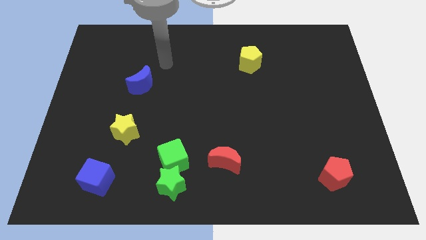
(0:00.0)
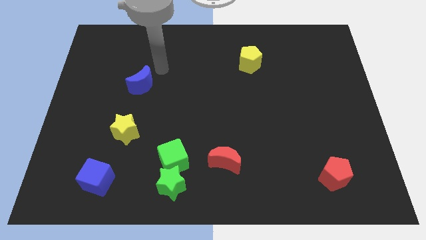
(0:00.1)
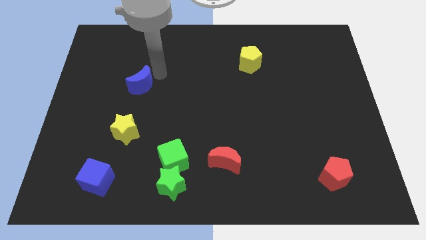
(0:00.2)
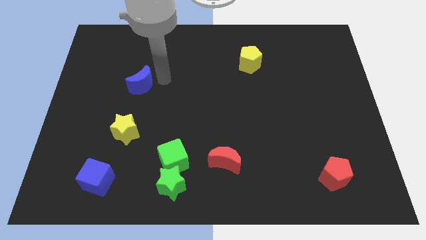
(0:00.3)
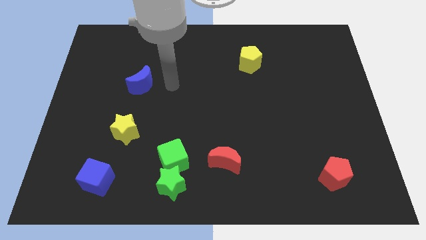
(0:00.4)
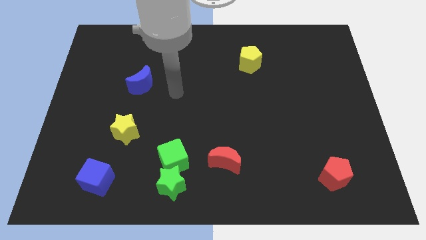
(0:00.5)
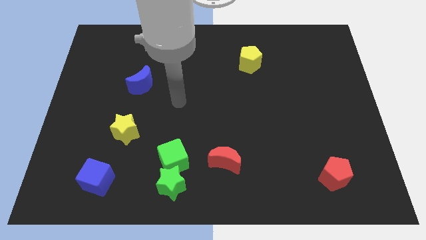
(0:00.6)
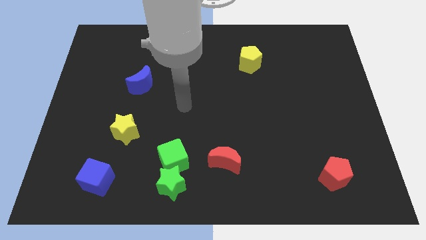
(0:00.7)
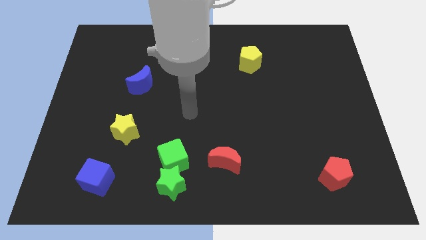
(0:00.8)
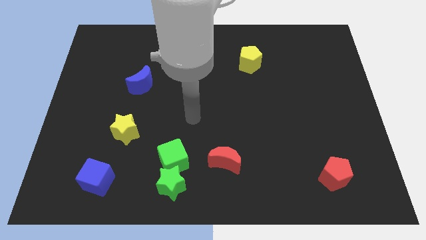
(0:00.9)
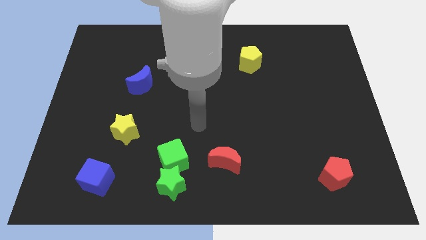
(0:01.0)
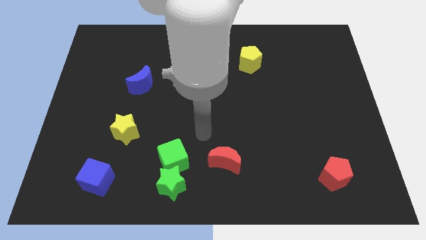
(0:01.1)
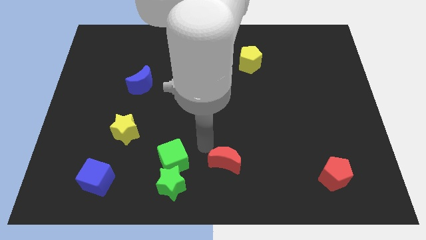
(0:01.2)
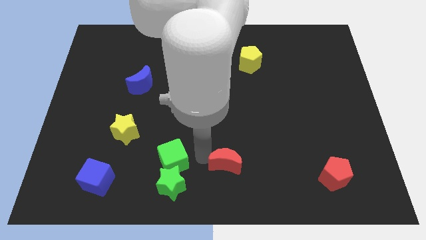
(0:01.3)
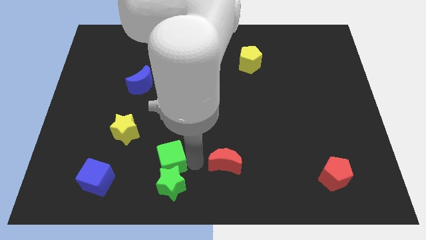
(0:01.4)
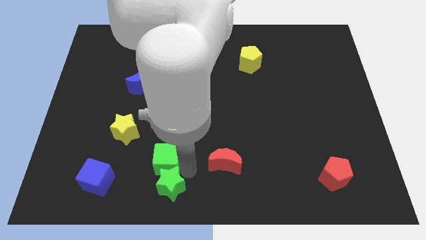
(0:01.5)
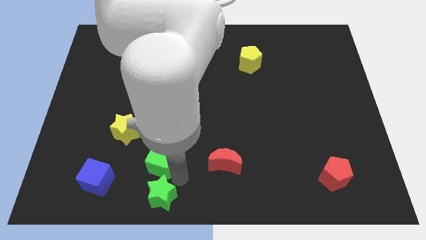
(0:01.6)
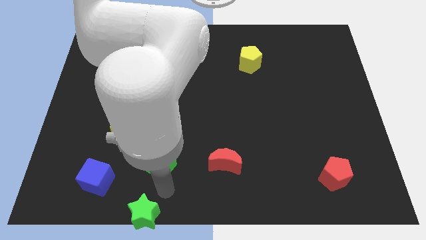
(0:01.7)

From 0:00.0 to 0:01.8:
move the green cube away from the green star

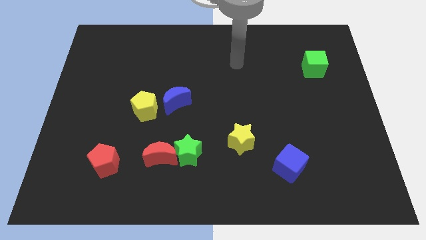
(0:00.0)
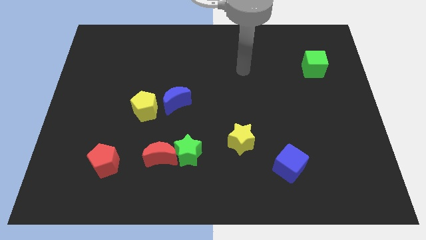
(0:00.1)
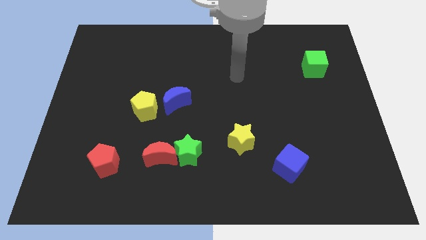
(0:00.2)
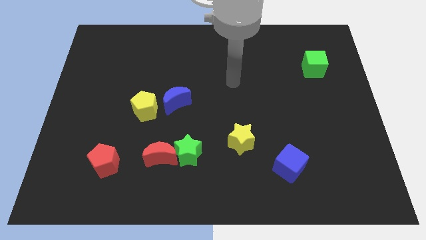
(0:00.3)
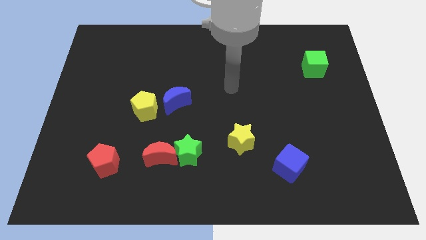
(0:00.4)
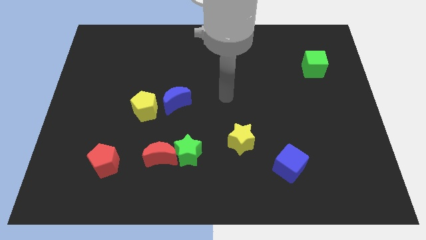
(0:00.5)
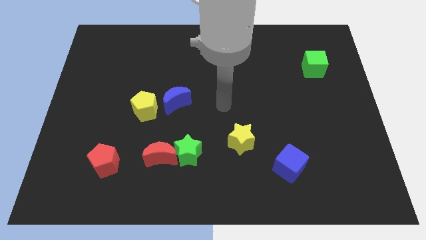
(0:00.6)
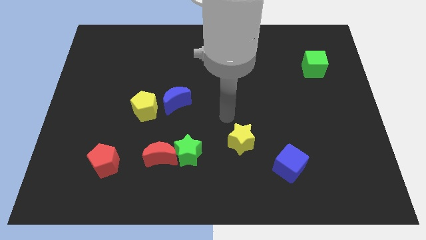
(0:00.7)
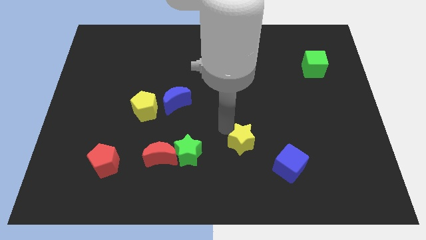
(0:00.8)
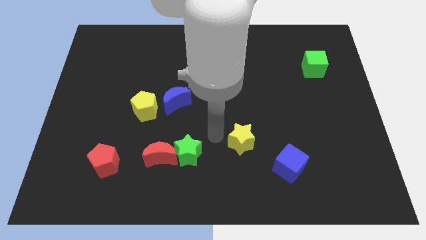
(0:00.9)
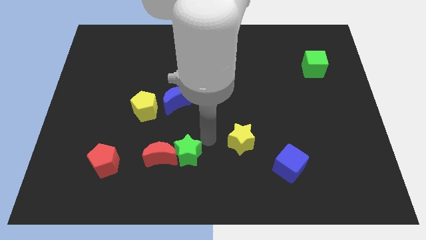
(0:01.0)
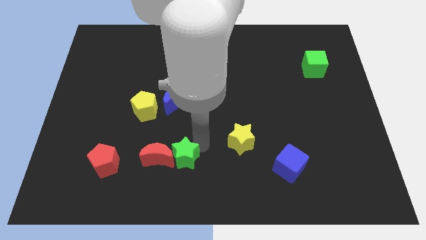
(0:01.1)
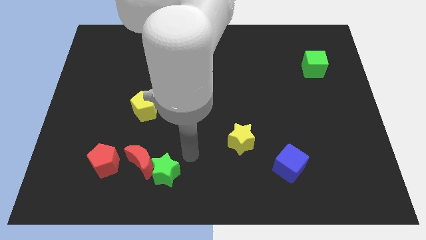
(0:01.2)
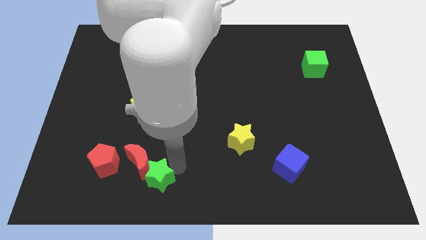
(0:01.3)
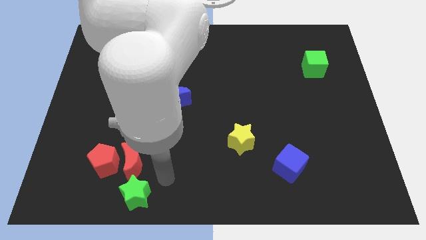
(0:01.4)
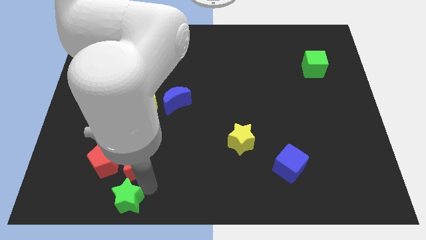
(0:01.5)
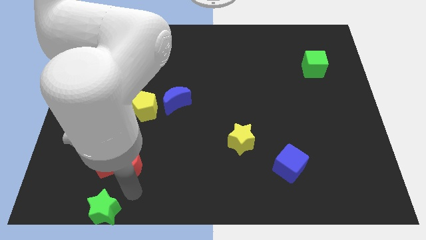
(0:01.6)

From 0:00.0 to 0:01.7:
pull the red moon apart from the green star

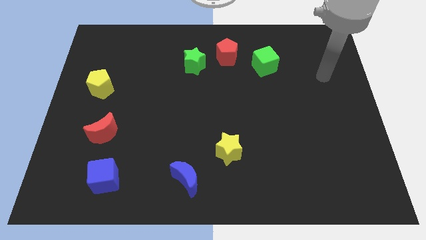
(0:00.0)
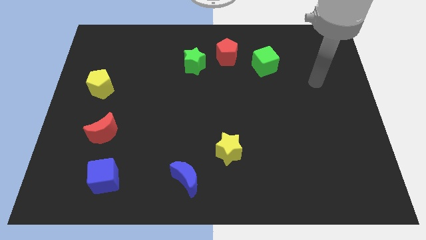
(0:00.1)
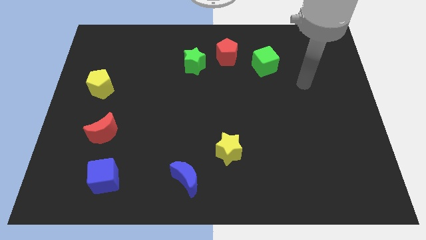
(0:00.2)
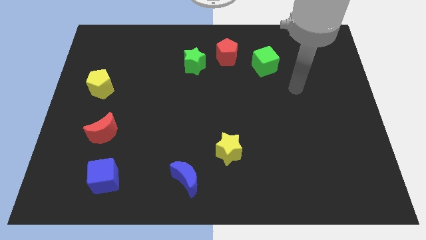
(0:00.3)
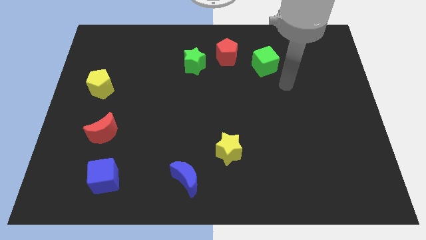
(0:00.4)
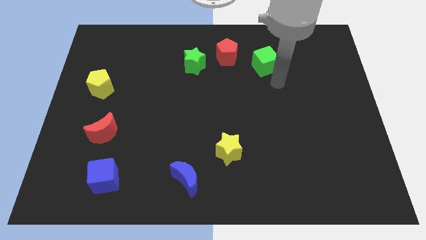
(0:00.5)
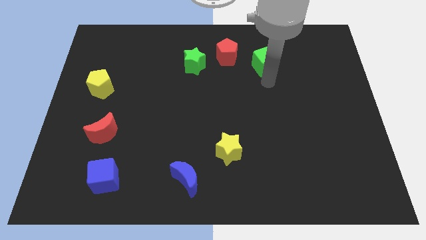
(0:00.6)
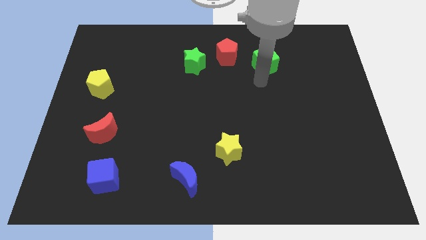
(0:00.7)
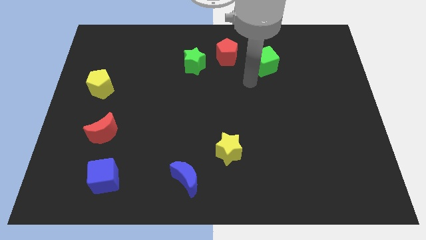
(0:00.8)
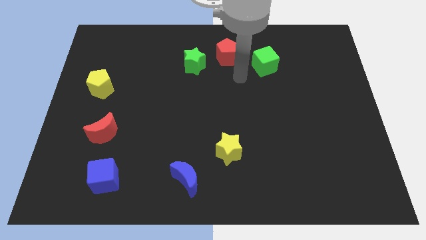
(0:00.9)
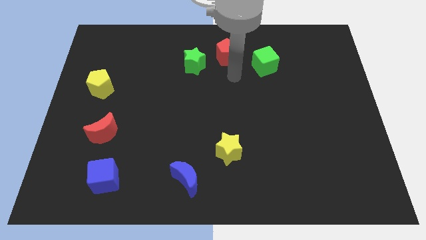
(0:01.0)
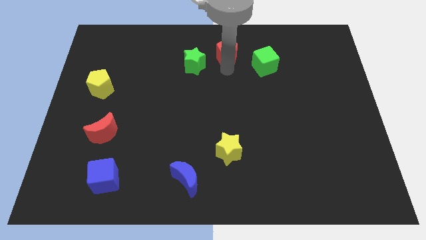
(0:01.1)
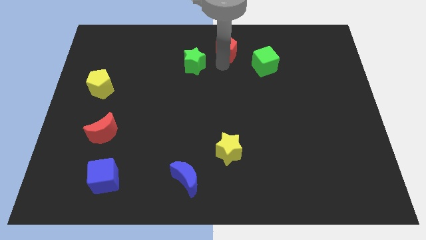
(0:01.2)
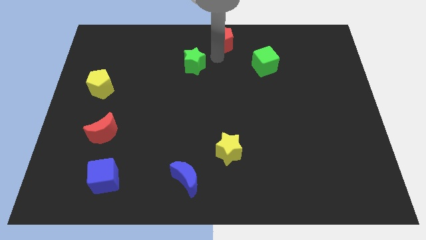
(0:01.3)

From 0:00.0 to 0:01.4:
move the green star away from the red pentagon

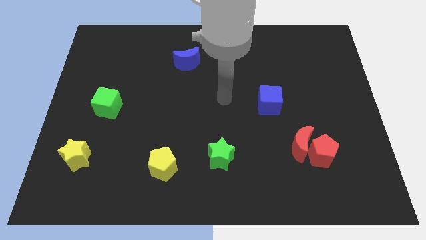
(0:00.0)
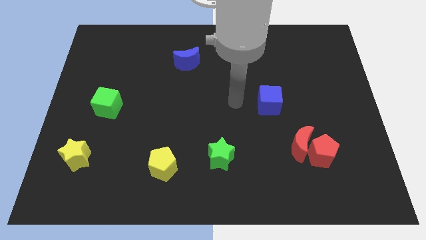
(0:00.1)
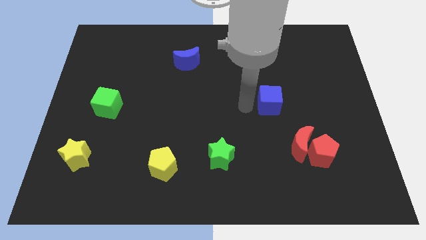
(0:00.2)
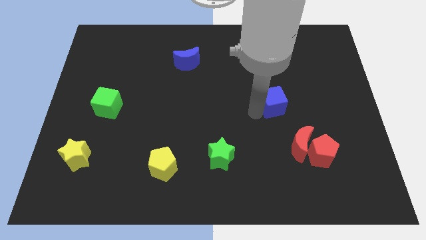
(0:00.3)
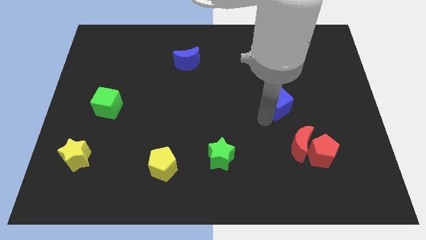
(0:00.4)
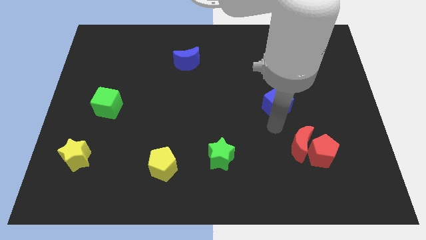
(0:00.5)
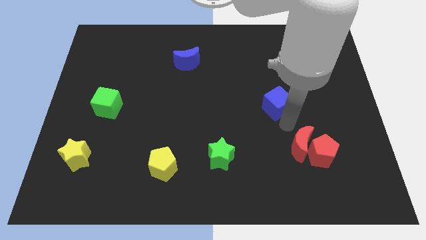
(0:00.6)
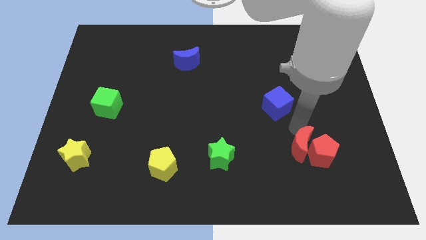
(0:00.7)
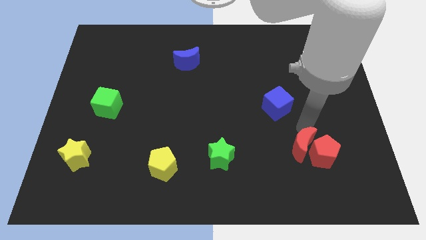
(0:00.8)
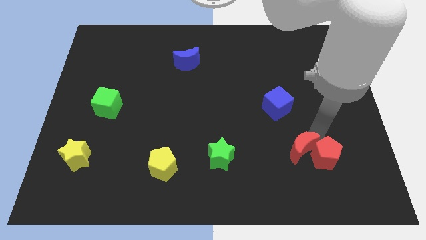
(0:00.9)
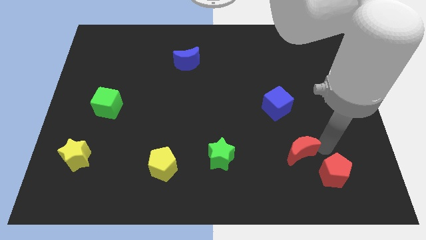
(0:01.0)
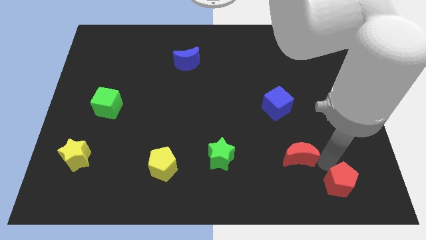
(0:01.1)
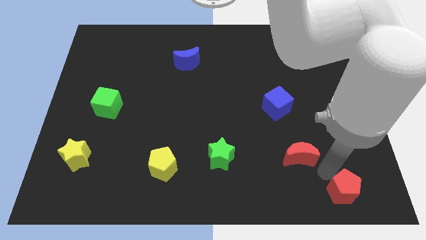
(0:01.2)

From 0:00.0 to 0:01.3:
separate the red moon from the red pentagon

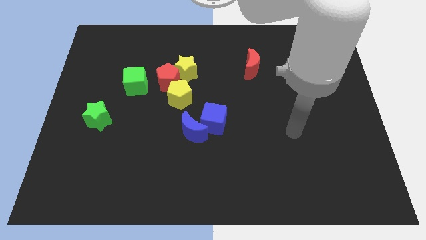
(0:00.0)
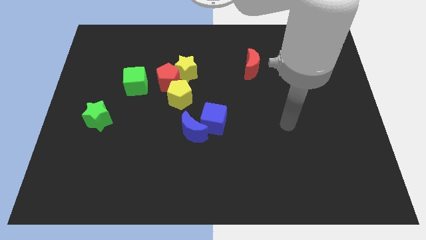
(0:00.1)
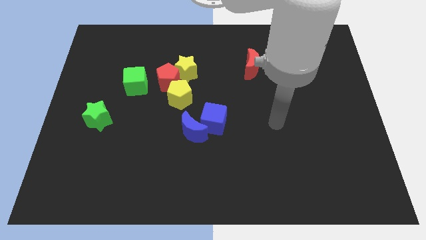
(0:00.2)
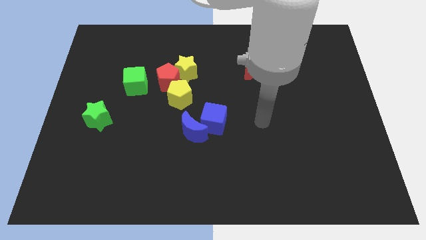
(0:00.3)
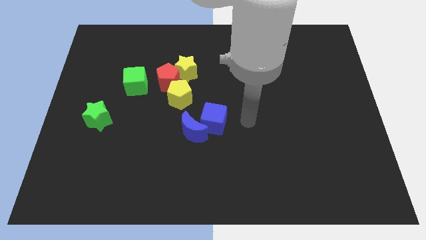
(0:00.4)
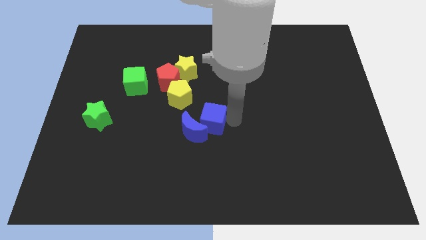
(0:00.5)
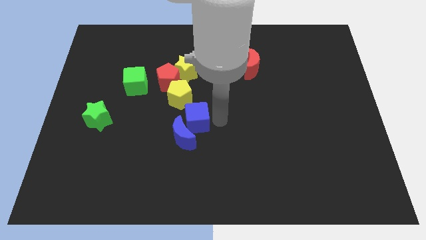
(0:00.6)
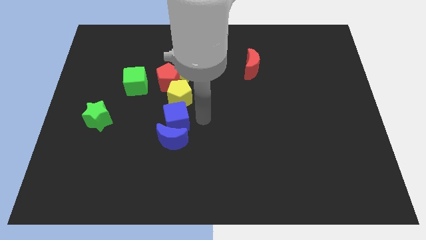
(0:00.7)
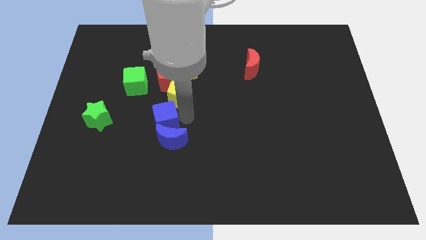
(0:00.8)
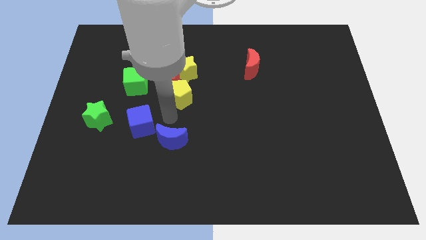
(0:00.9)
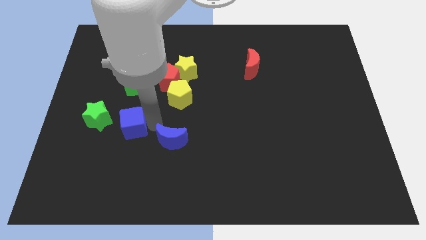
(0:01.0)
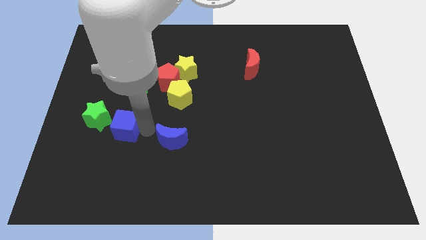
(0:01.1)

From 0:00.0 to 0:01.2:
pull the blue moon apart from the blue cube

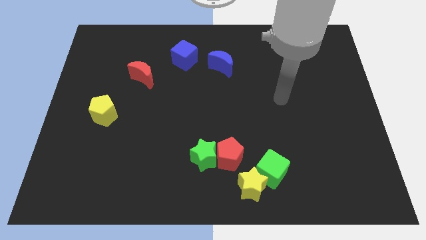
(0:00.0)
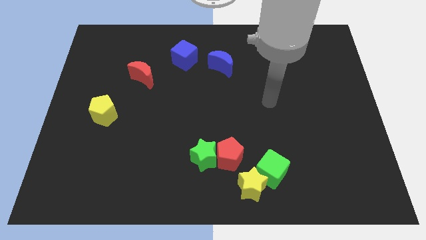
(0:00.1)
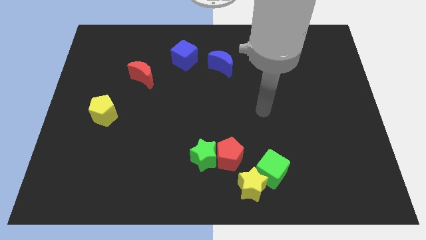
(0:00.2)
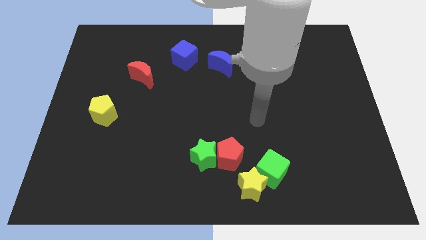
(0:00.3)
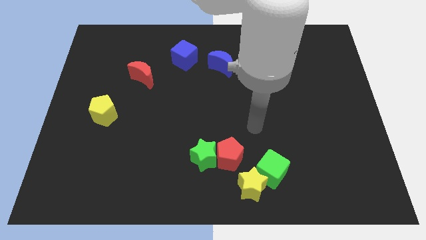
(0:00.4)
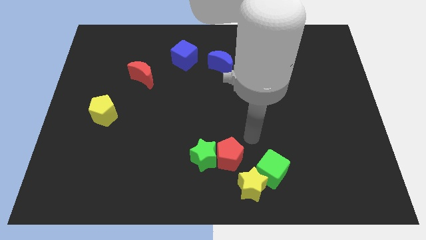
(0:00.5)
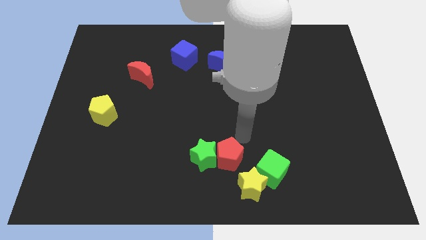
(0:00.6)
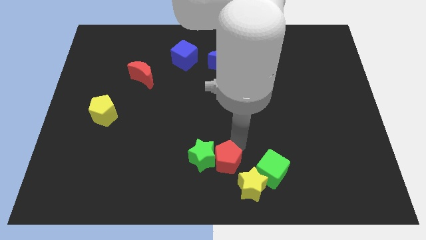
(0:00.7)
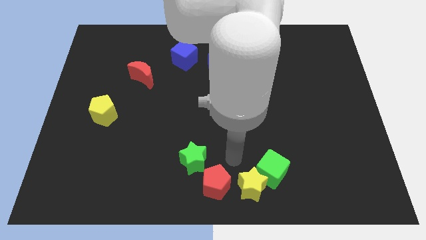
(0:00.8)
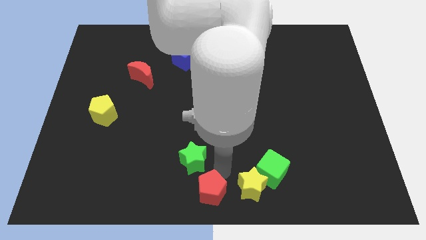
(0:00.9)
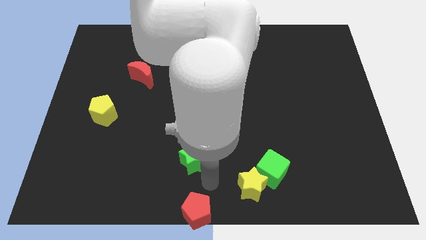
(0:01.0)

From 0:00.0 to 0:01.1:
separate the green star from the red pentagon

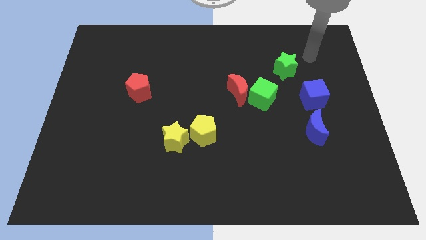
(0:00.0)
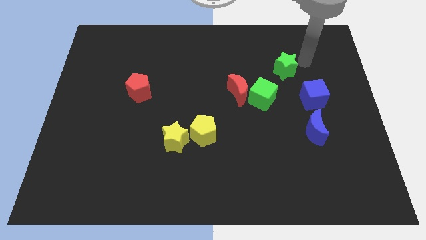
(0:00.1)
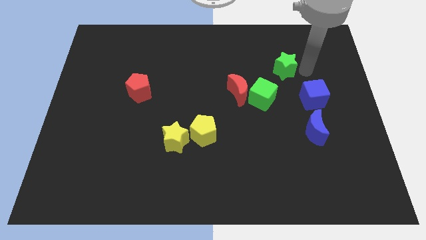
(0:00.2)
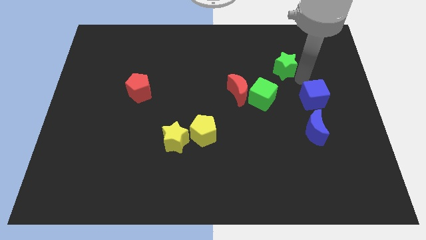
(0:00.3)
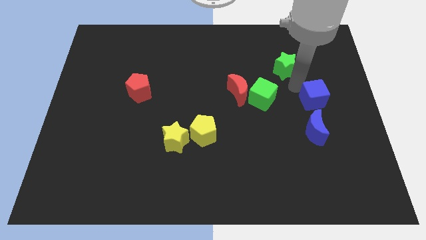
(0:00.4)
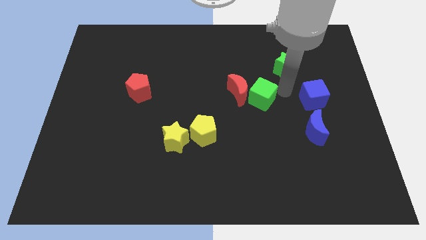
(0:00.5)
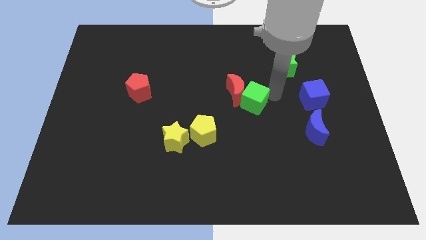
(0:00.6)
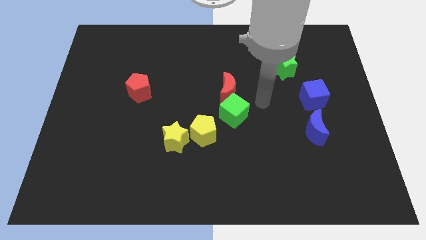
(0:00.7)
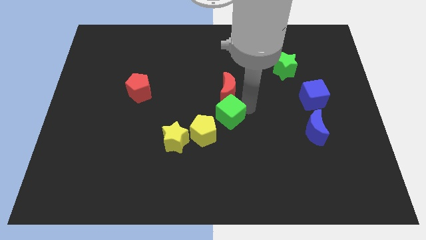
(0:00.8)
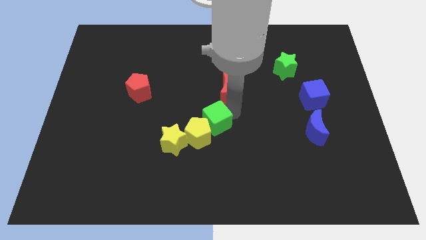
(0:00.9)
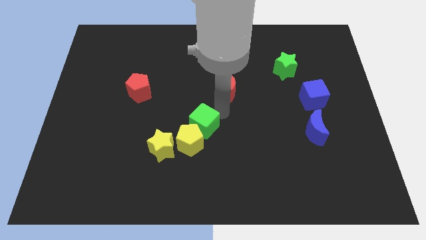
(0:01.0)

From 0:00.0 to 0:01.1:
pull the red moon apart from the green cube
